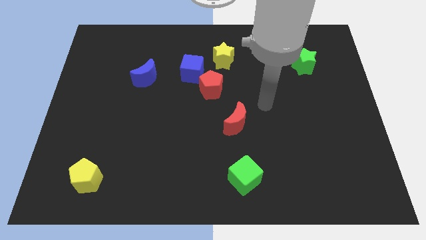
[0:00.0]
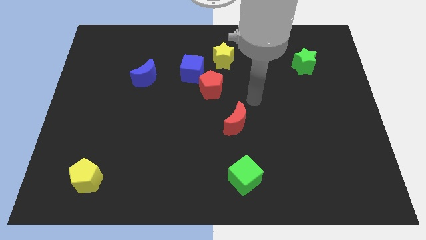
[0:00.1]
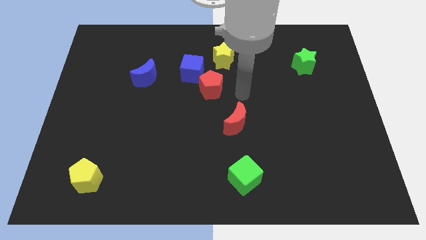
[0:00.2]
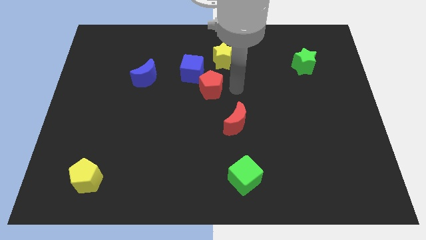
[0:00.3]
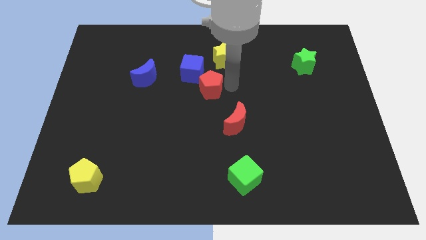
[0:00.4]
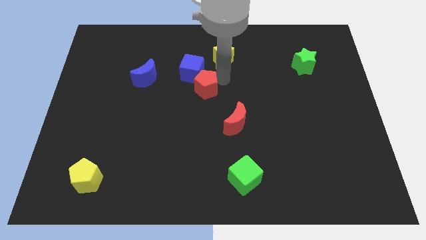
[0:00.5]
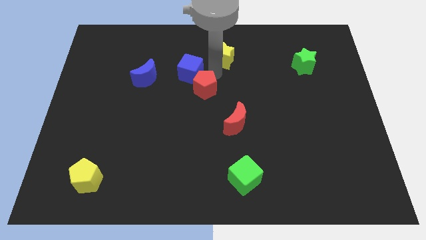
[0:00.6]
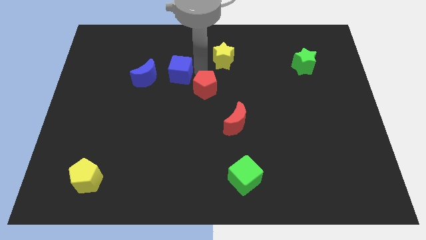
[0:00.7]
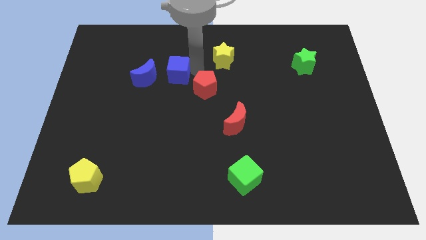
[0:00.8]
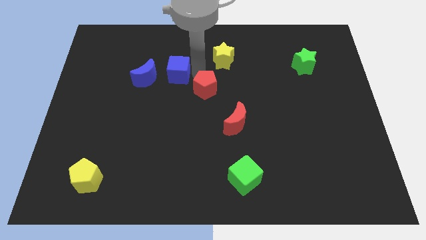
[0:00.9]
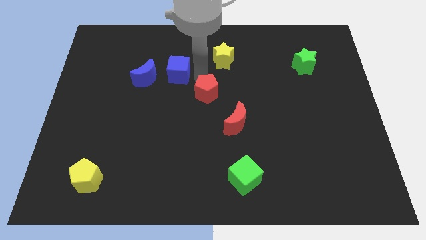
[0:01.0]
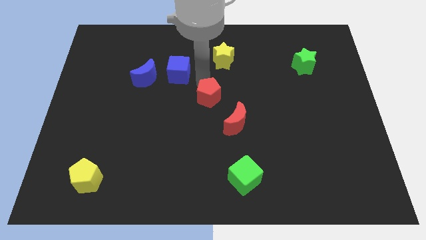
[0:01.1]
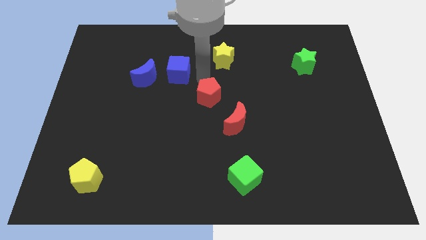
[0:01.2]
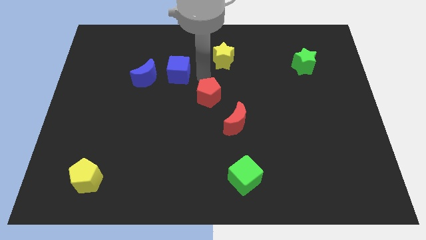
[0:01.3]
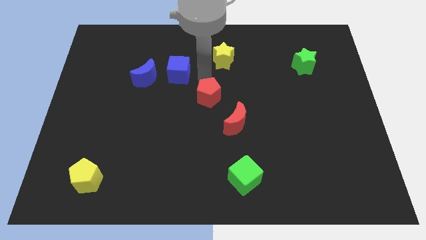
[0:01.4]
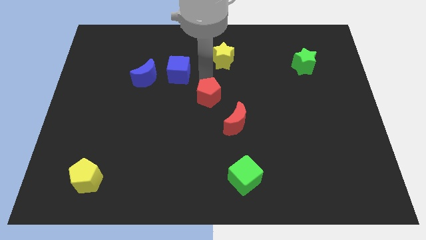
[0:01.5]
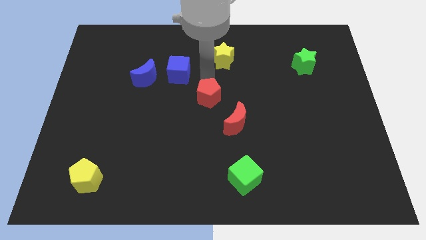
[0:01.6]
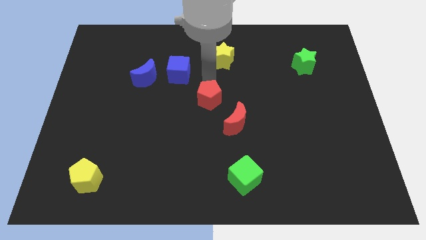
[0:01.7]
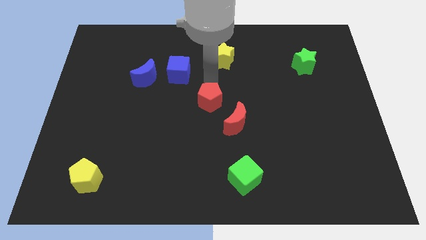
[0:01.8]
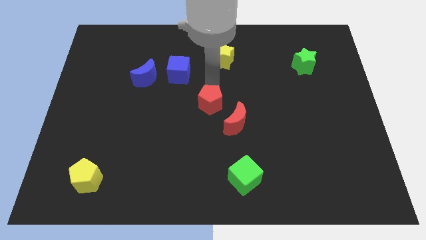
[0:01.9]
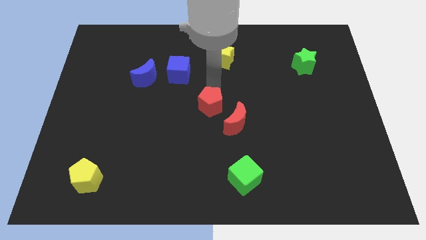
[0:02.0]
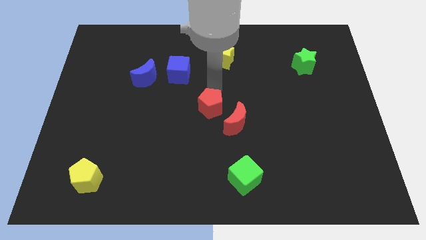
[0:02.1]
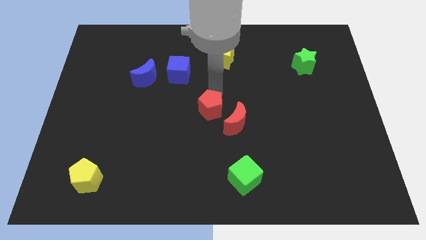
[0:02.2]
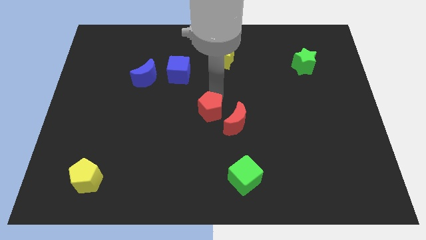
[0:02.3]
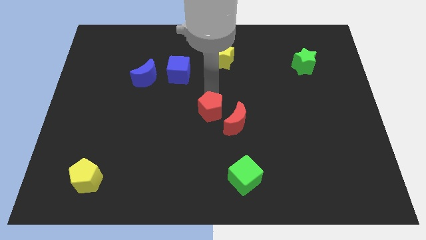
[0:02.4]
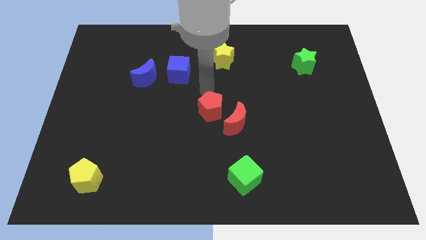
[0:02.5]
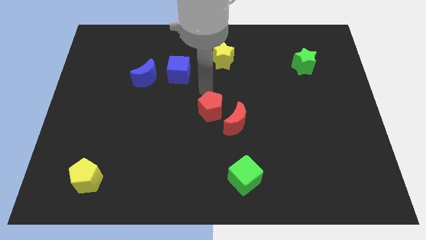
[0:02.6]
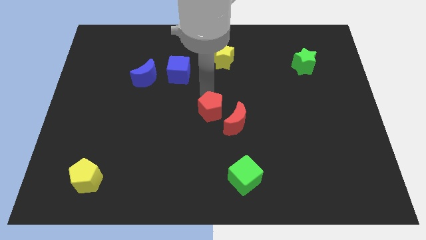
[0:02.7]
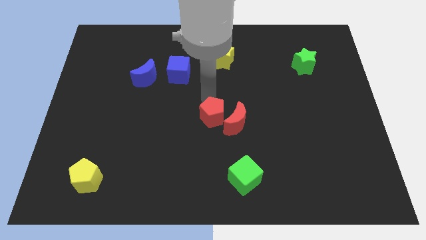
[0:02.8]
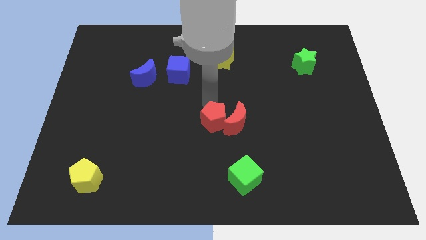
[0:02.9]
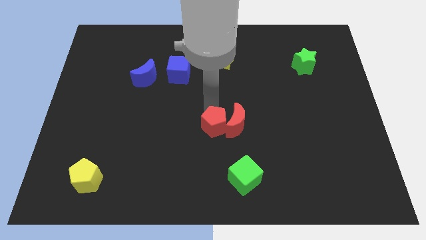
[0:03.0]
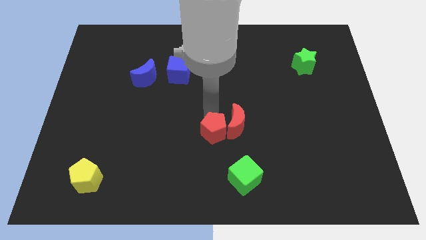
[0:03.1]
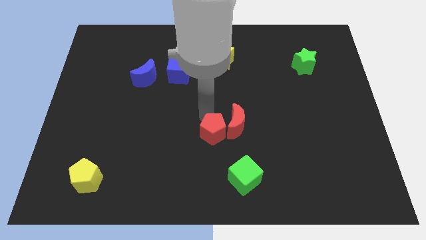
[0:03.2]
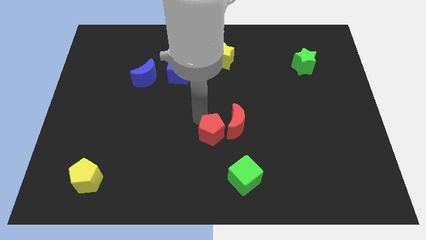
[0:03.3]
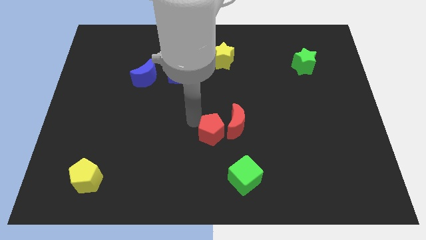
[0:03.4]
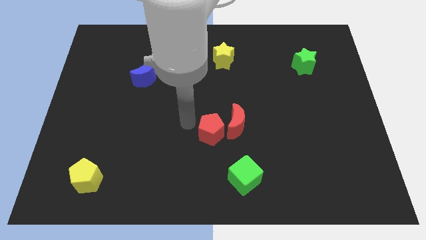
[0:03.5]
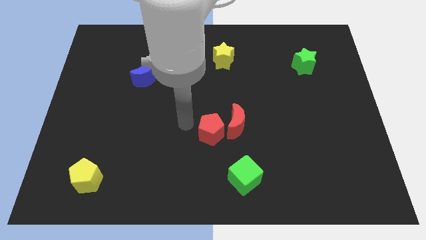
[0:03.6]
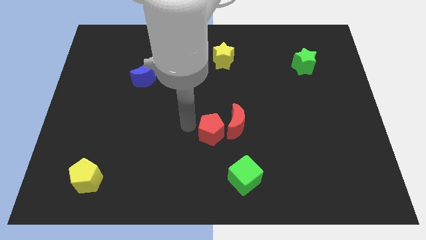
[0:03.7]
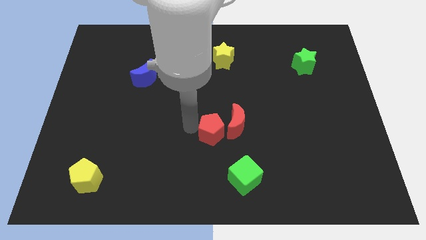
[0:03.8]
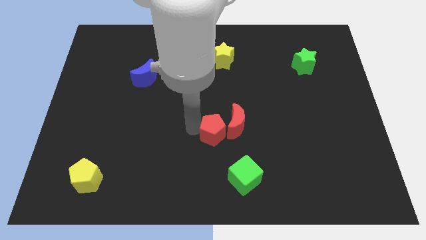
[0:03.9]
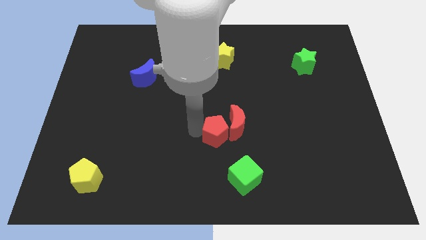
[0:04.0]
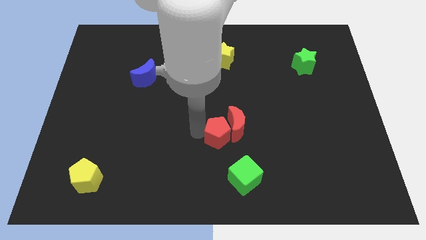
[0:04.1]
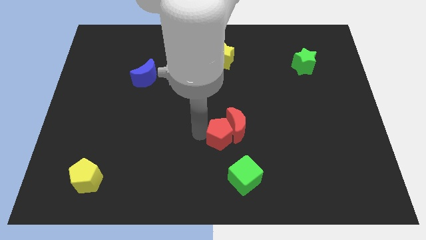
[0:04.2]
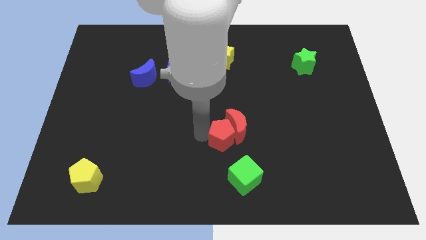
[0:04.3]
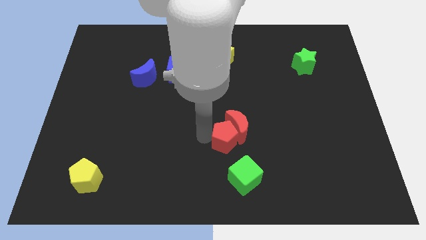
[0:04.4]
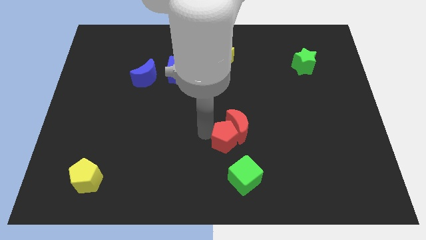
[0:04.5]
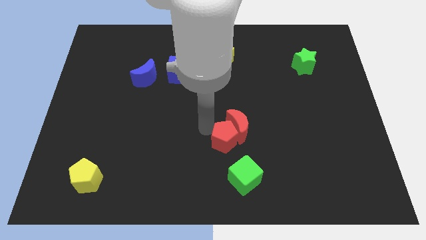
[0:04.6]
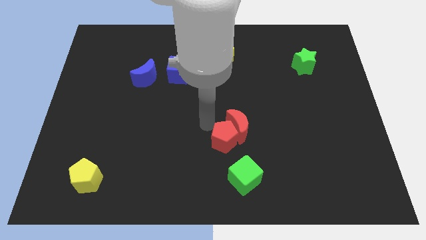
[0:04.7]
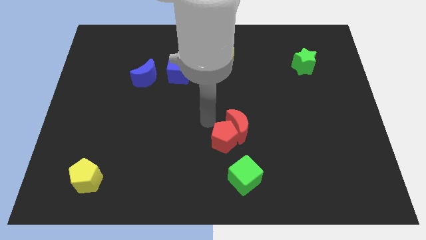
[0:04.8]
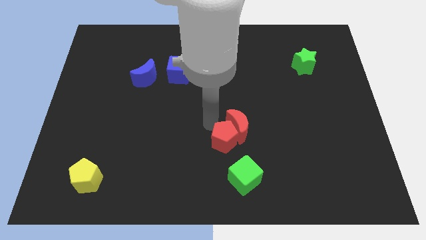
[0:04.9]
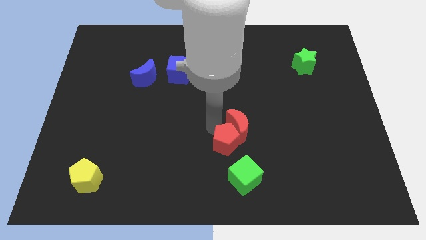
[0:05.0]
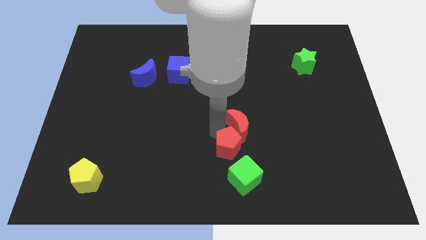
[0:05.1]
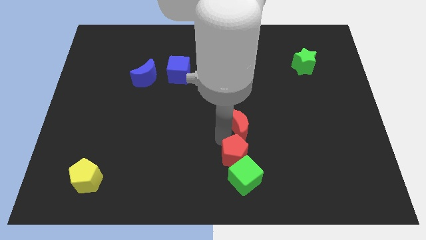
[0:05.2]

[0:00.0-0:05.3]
put the red pentagon next to the green cube

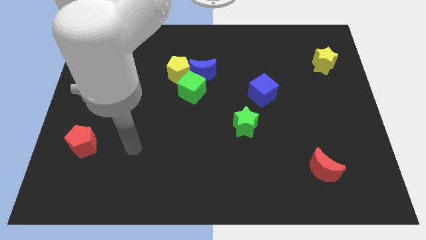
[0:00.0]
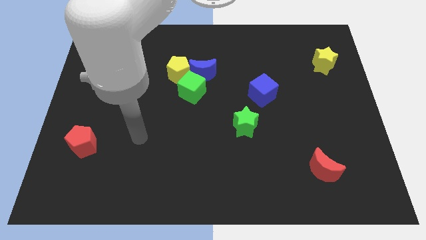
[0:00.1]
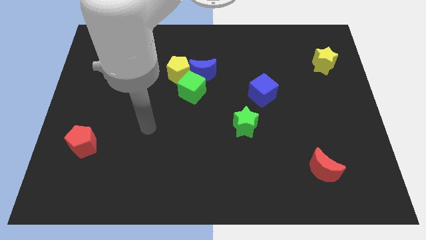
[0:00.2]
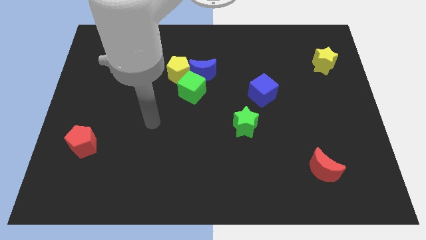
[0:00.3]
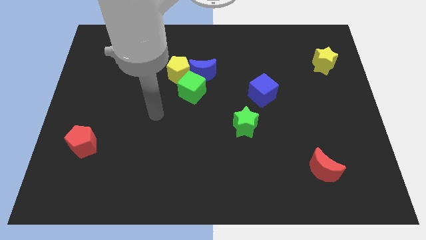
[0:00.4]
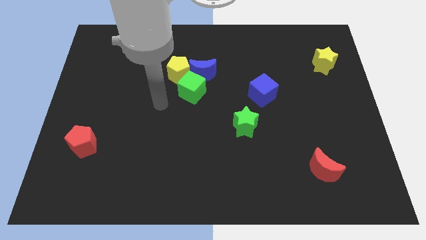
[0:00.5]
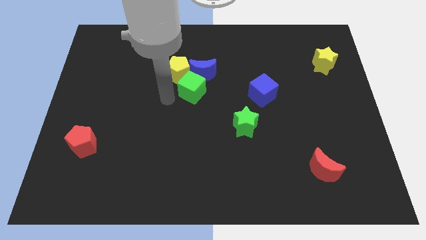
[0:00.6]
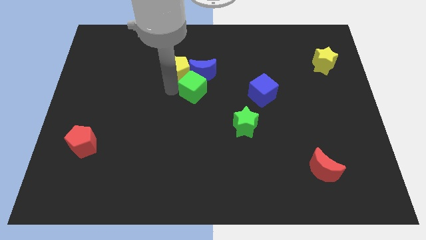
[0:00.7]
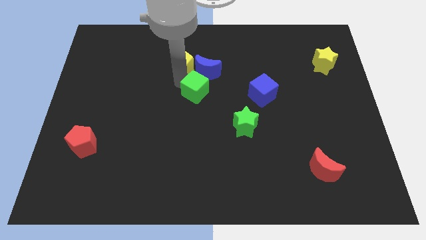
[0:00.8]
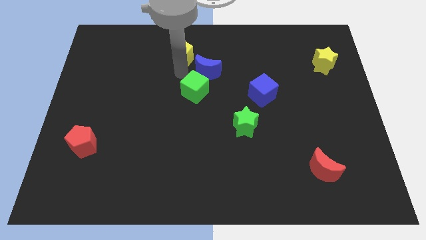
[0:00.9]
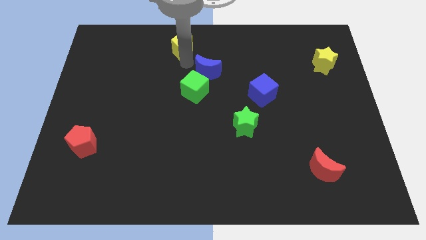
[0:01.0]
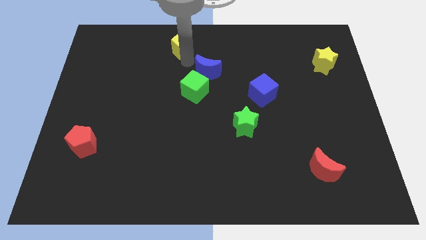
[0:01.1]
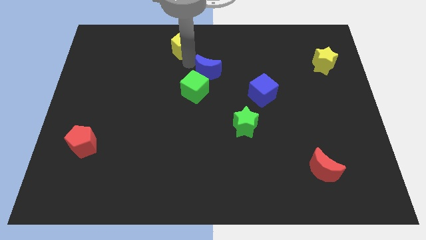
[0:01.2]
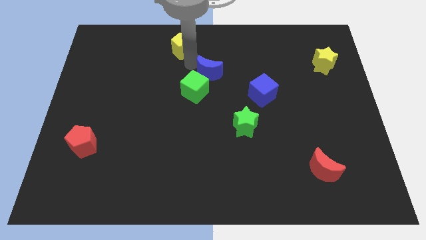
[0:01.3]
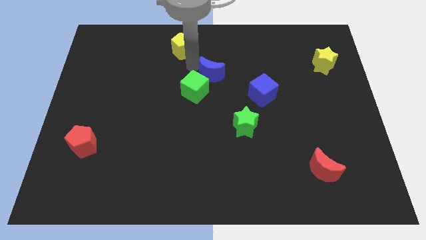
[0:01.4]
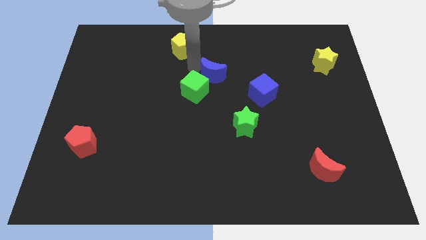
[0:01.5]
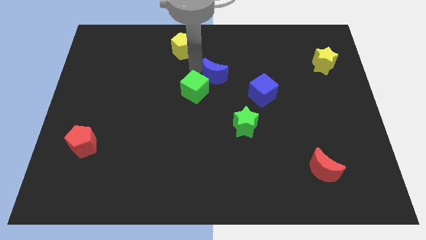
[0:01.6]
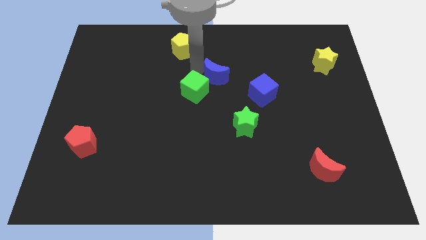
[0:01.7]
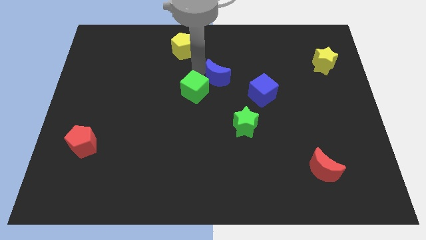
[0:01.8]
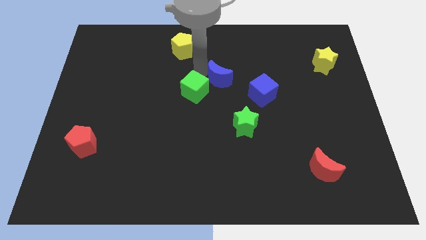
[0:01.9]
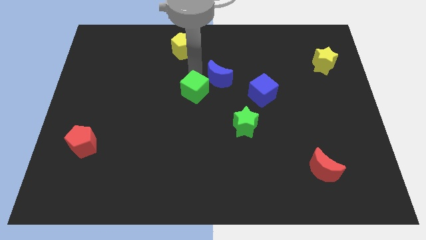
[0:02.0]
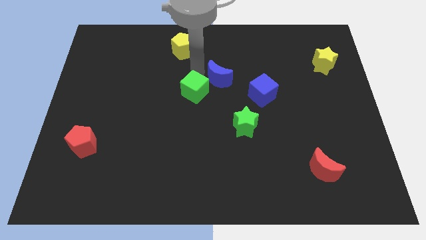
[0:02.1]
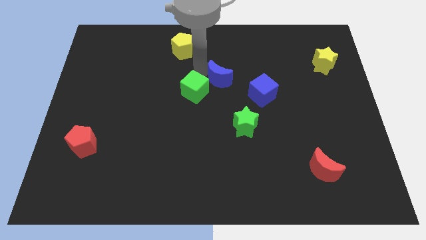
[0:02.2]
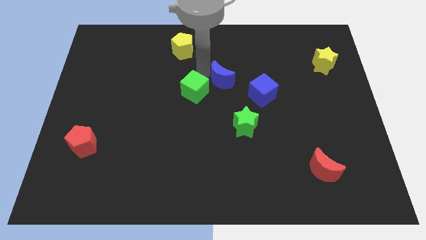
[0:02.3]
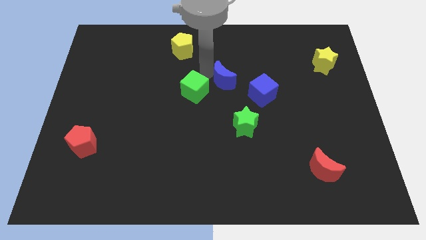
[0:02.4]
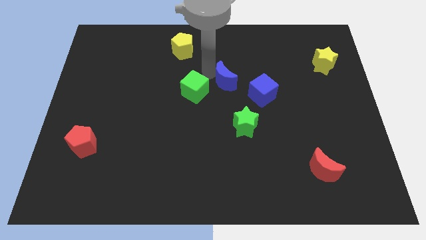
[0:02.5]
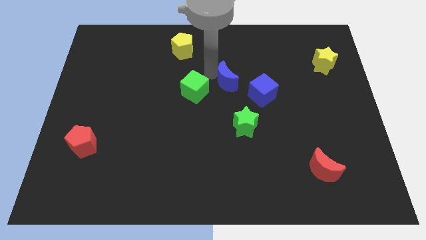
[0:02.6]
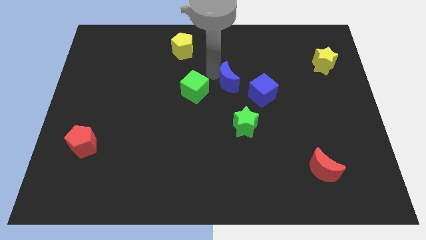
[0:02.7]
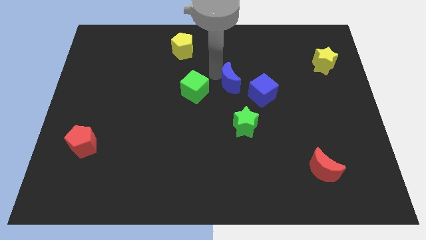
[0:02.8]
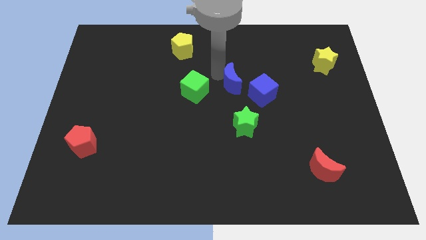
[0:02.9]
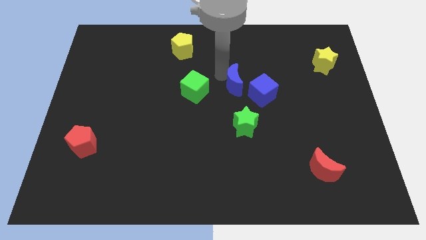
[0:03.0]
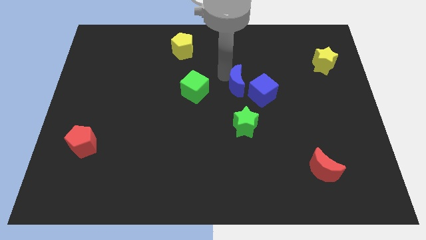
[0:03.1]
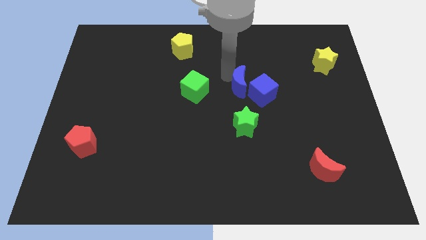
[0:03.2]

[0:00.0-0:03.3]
slide the blue moon to the blue cube
